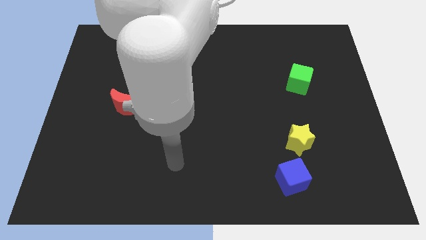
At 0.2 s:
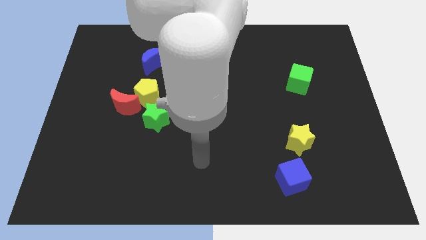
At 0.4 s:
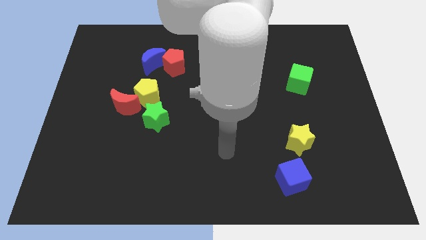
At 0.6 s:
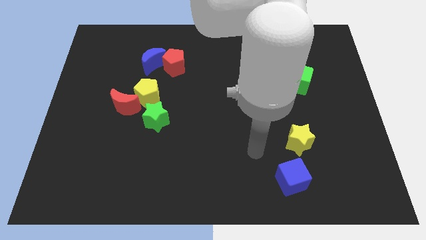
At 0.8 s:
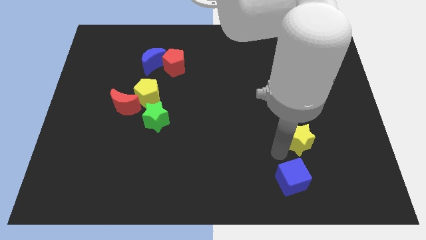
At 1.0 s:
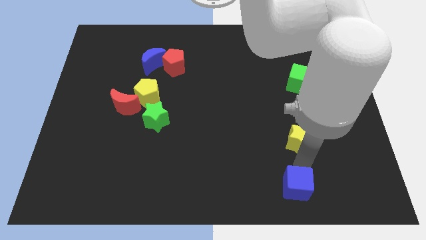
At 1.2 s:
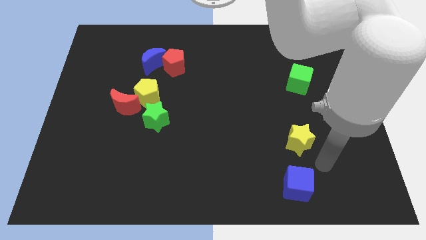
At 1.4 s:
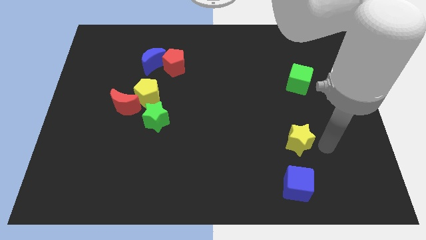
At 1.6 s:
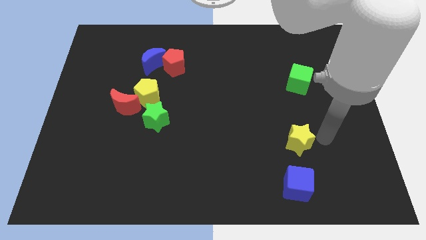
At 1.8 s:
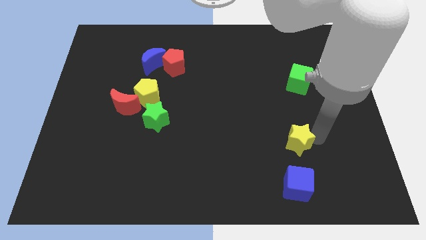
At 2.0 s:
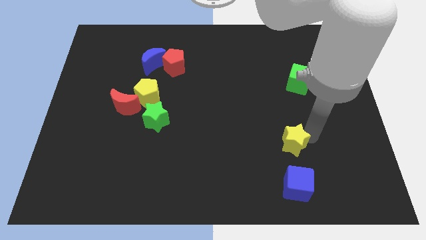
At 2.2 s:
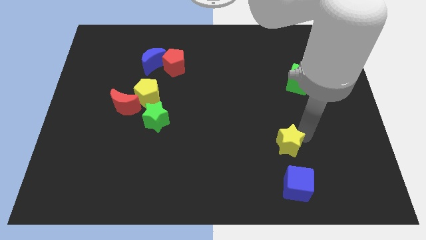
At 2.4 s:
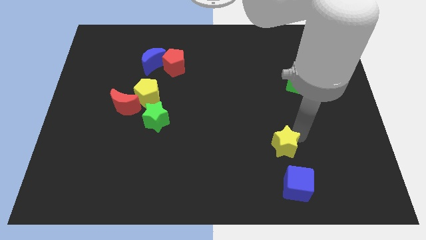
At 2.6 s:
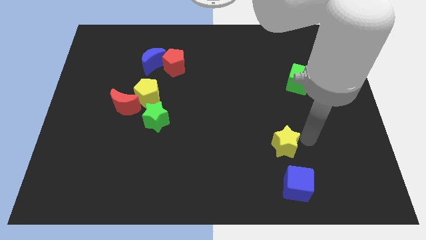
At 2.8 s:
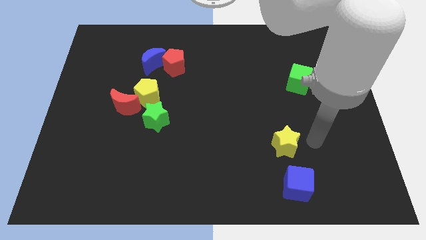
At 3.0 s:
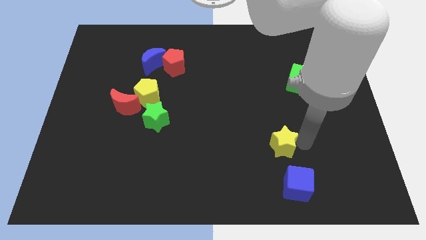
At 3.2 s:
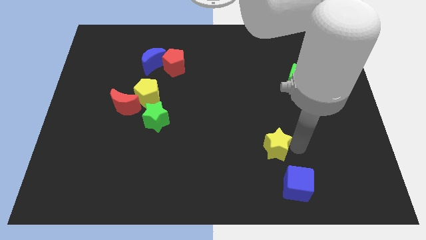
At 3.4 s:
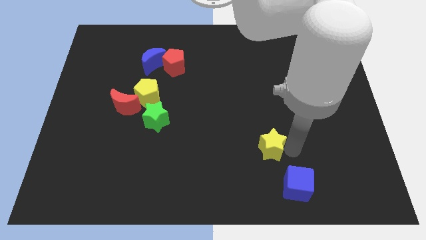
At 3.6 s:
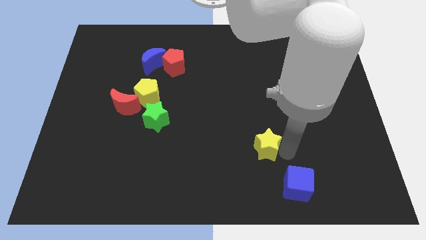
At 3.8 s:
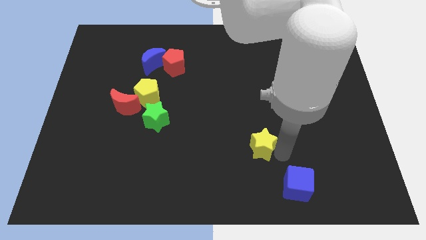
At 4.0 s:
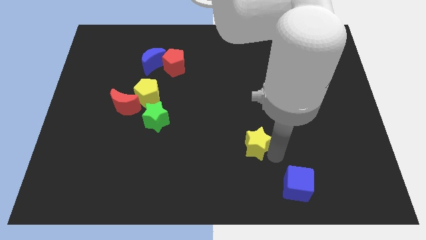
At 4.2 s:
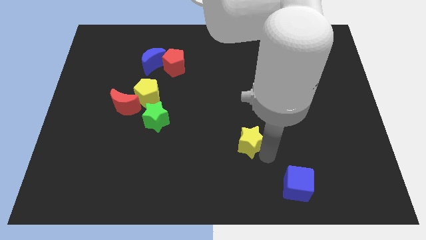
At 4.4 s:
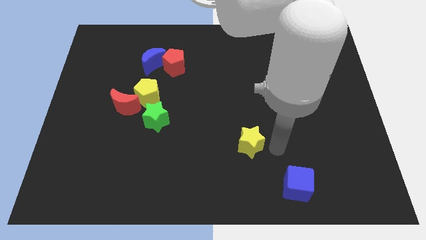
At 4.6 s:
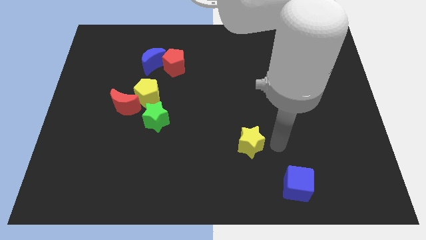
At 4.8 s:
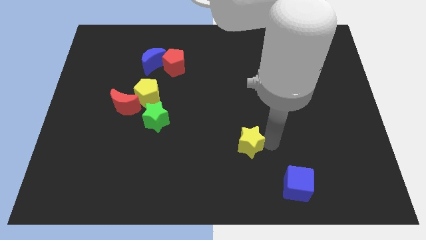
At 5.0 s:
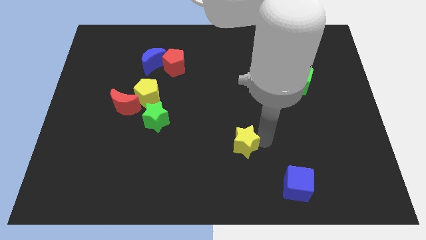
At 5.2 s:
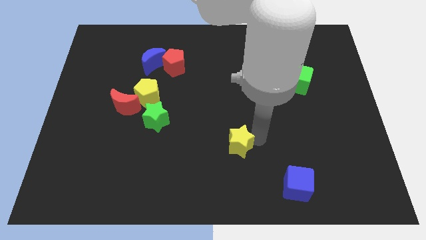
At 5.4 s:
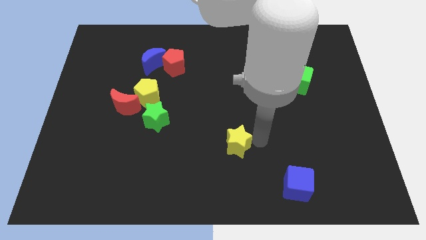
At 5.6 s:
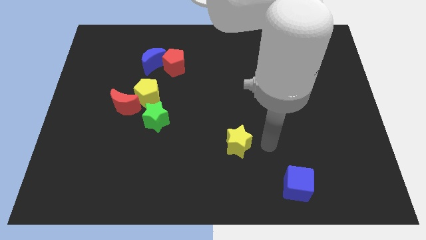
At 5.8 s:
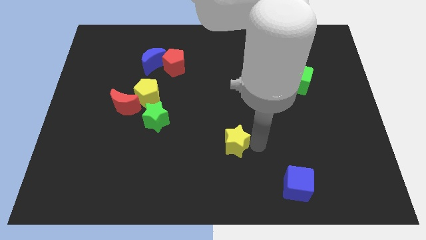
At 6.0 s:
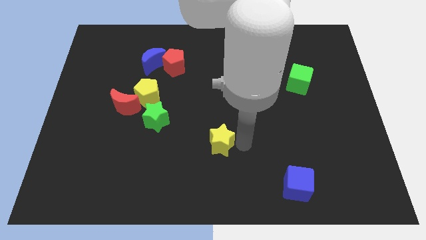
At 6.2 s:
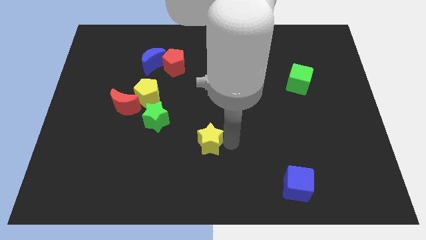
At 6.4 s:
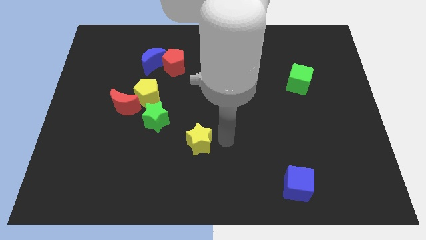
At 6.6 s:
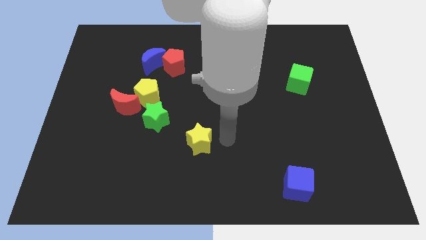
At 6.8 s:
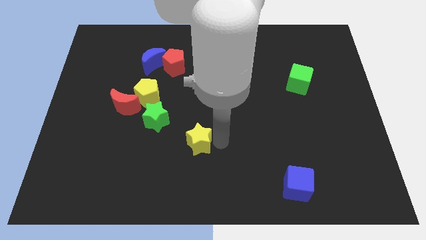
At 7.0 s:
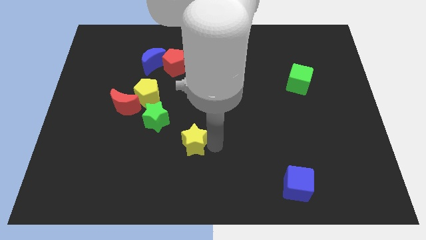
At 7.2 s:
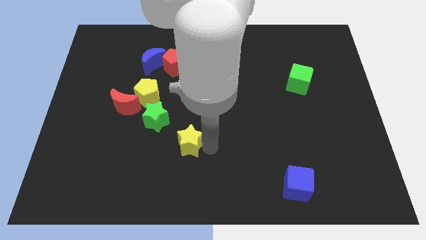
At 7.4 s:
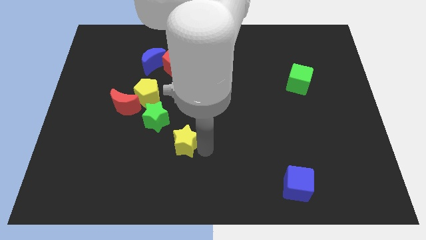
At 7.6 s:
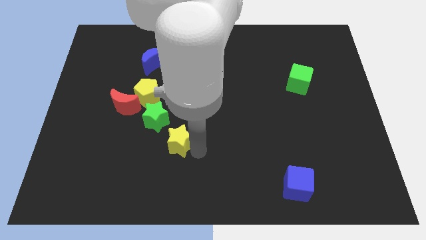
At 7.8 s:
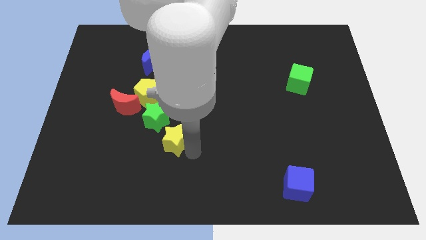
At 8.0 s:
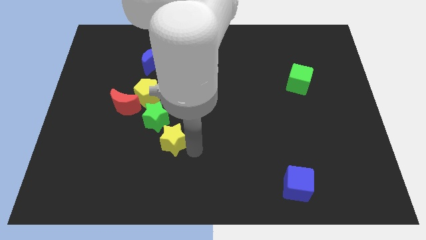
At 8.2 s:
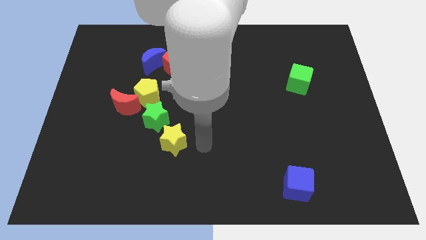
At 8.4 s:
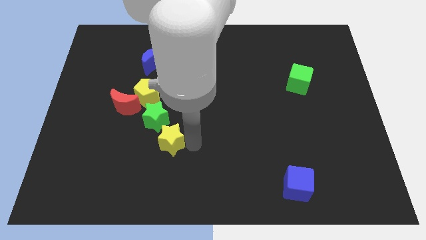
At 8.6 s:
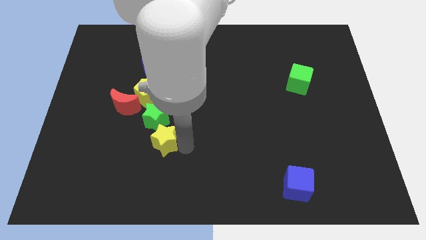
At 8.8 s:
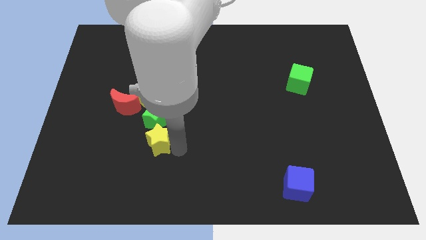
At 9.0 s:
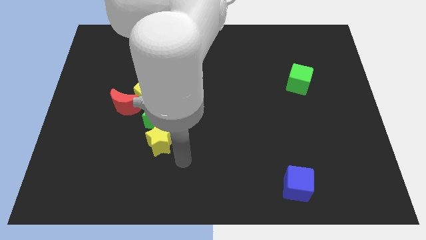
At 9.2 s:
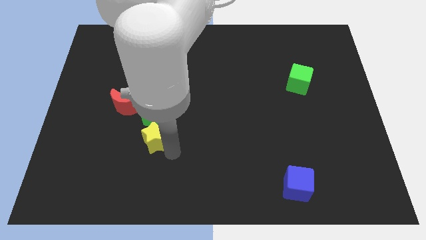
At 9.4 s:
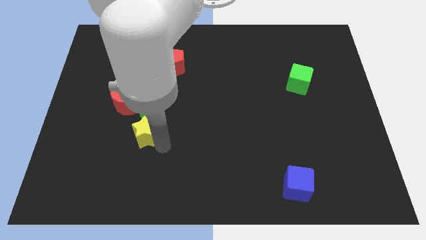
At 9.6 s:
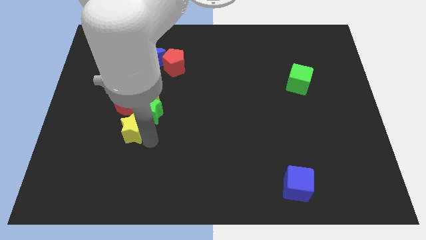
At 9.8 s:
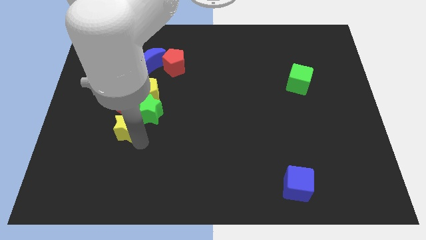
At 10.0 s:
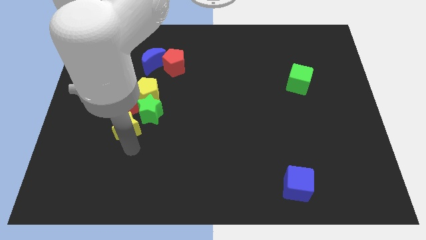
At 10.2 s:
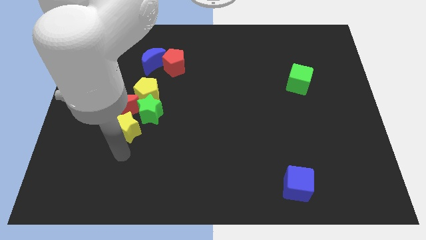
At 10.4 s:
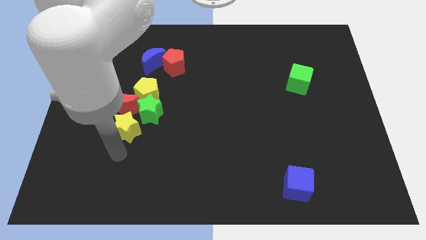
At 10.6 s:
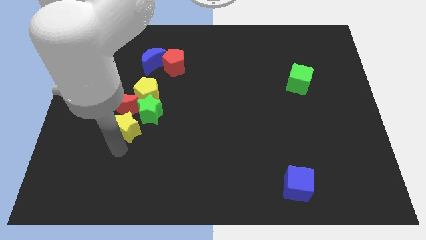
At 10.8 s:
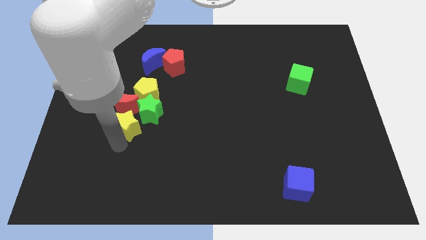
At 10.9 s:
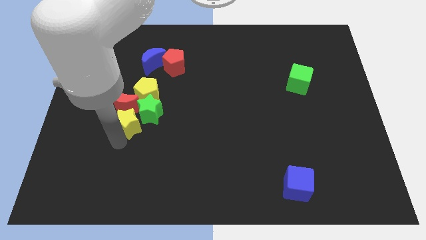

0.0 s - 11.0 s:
put the yellow star next to the red moon

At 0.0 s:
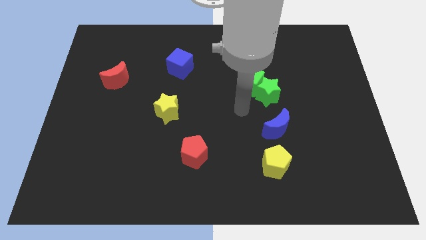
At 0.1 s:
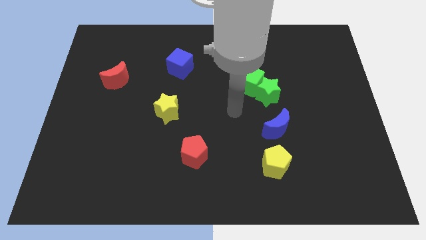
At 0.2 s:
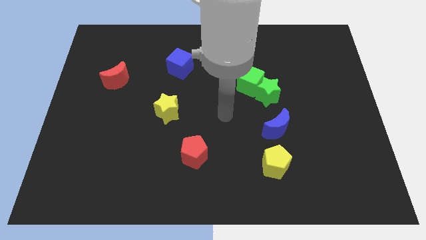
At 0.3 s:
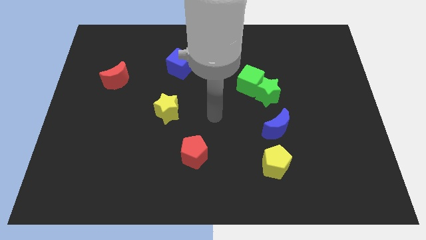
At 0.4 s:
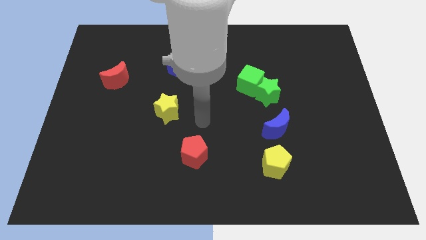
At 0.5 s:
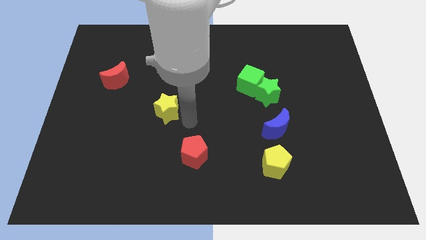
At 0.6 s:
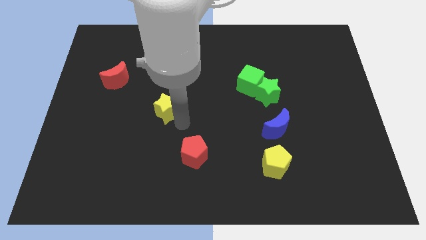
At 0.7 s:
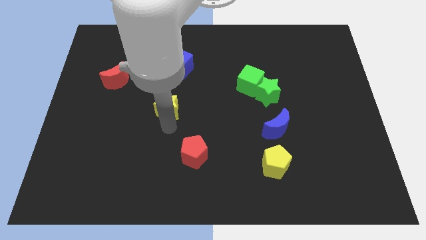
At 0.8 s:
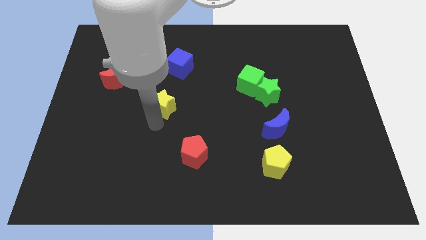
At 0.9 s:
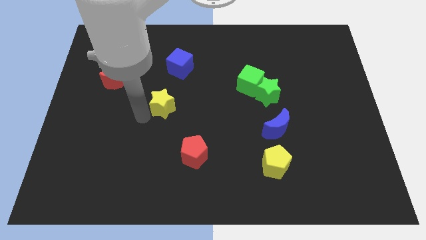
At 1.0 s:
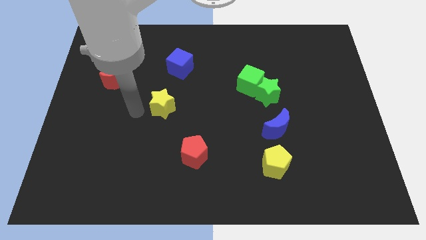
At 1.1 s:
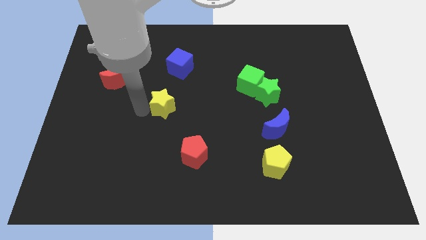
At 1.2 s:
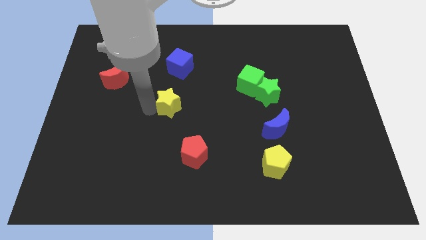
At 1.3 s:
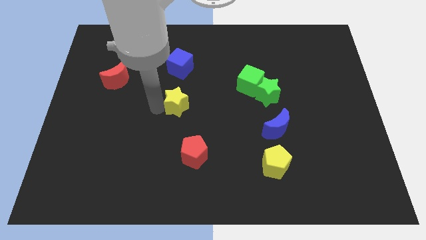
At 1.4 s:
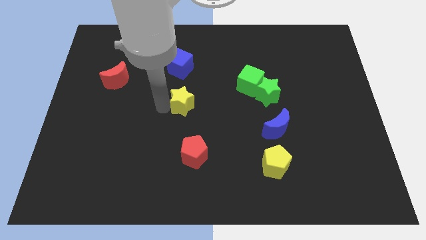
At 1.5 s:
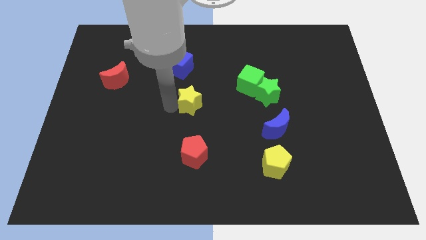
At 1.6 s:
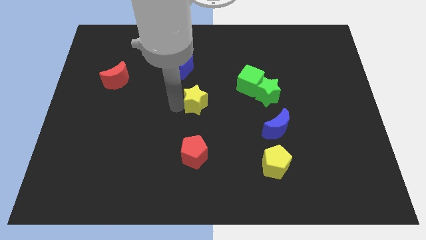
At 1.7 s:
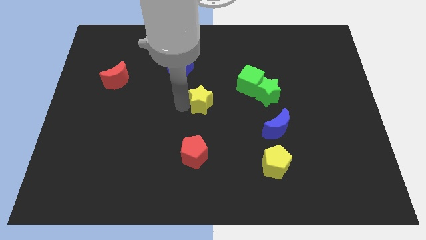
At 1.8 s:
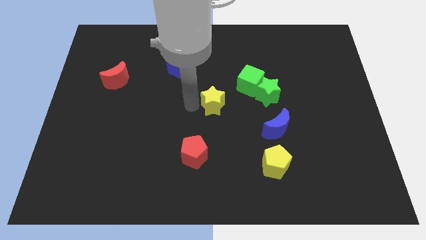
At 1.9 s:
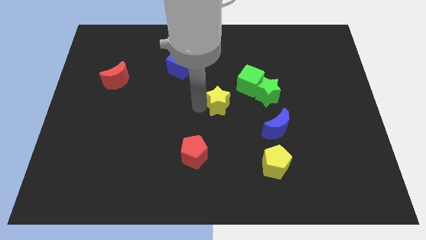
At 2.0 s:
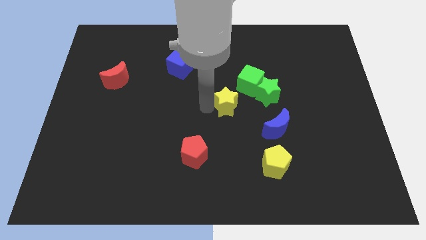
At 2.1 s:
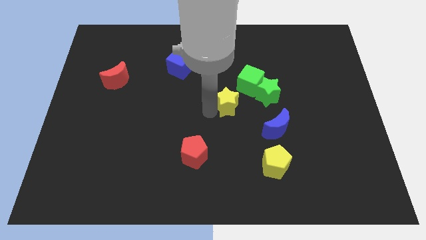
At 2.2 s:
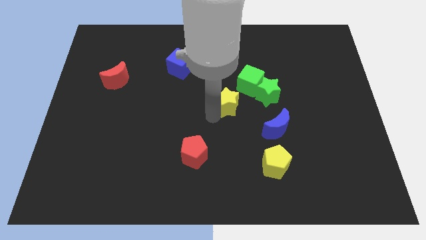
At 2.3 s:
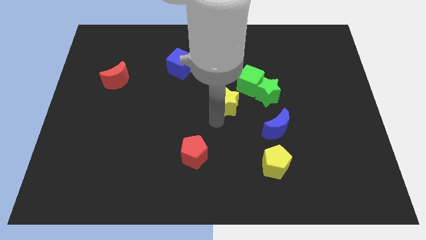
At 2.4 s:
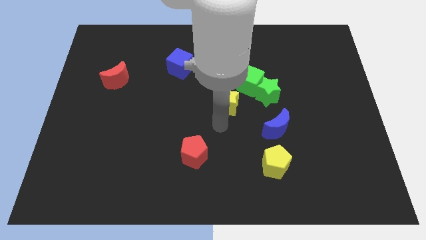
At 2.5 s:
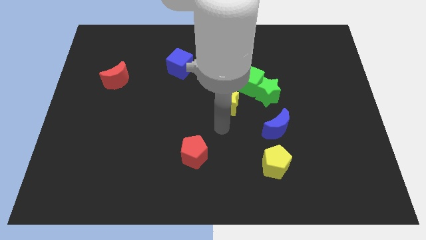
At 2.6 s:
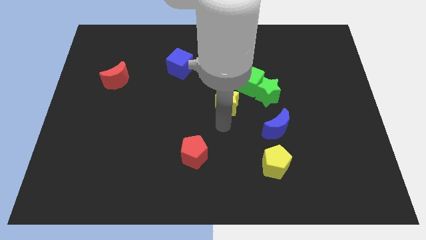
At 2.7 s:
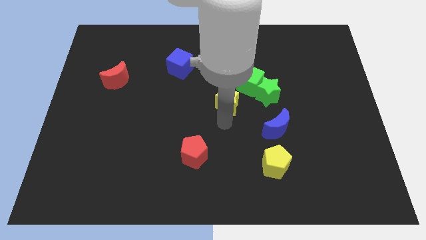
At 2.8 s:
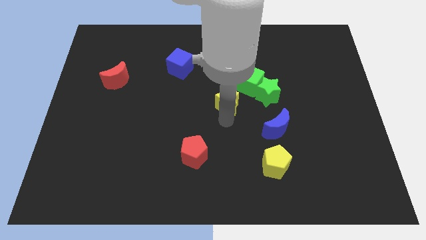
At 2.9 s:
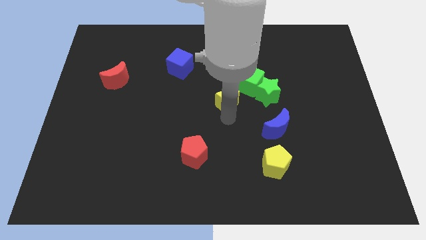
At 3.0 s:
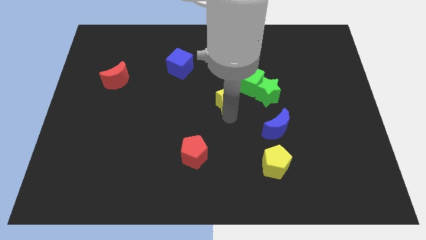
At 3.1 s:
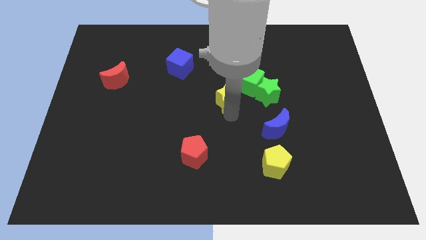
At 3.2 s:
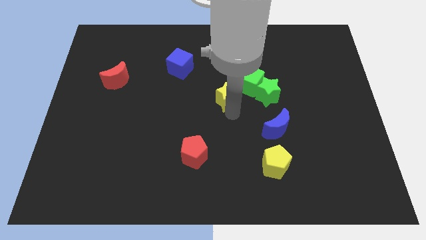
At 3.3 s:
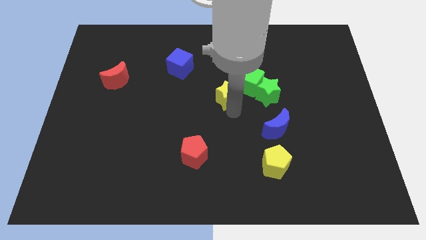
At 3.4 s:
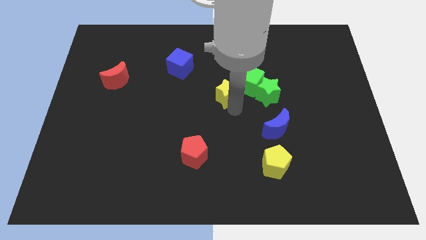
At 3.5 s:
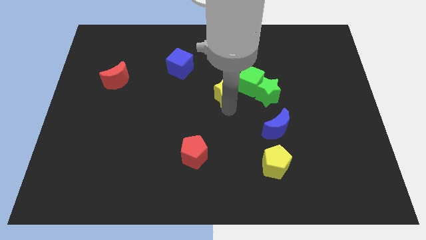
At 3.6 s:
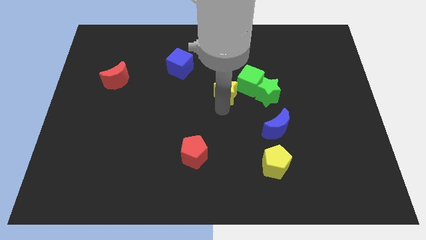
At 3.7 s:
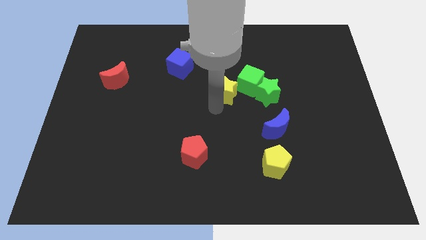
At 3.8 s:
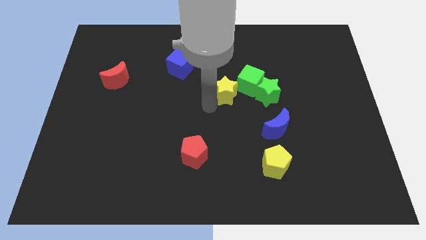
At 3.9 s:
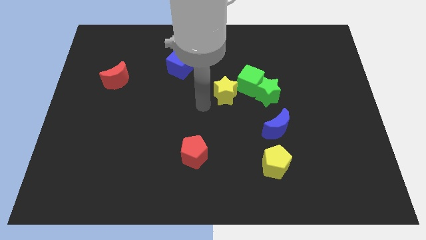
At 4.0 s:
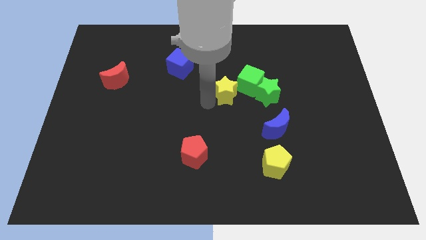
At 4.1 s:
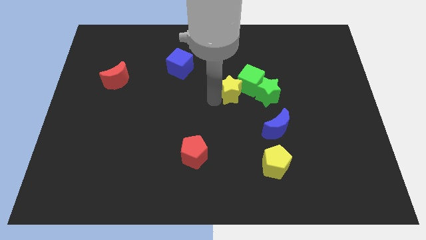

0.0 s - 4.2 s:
push the yellow star to the green cube
